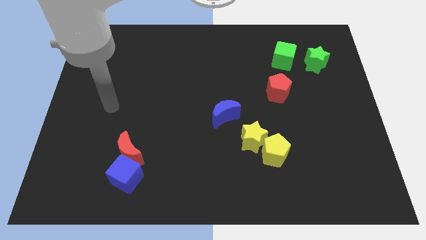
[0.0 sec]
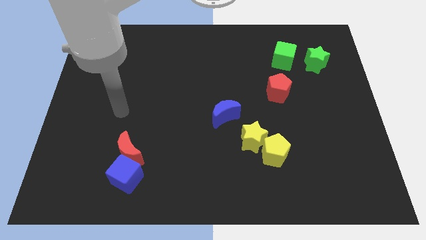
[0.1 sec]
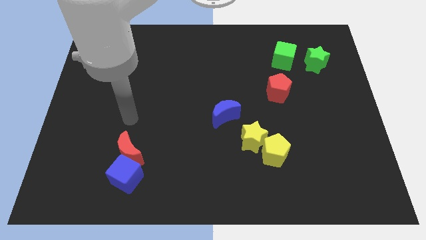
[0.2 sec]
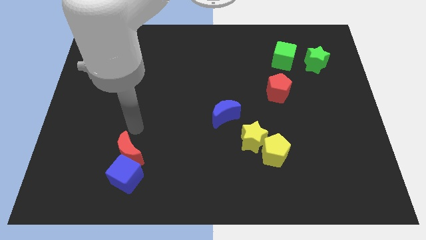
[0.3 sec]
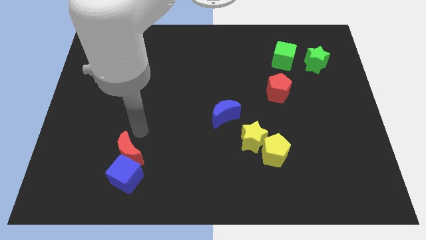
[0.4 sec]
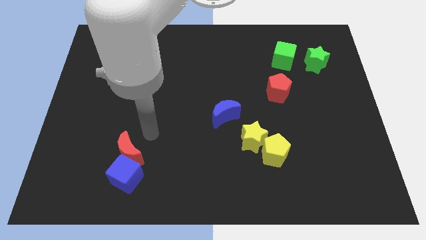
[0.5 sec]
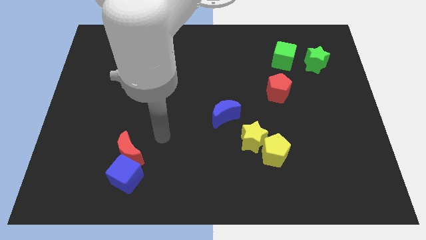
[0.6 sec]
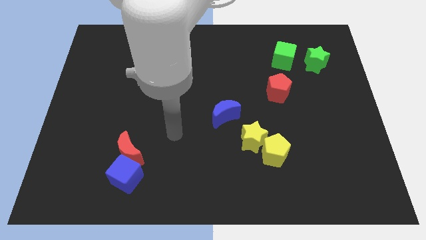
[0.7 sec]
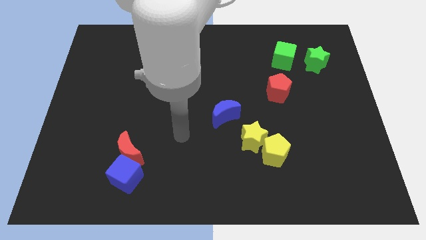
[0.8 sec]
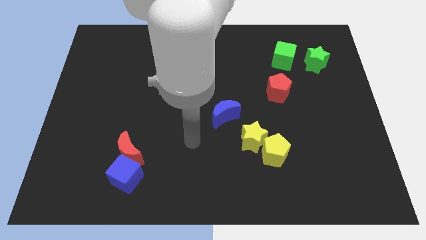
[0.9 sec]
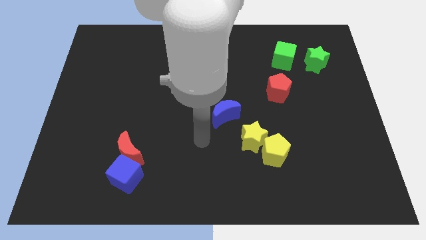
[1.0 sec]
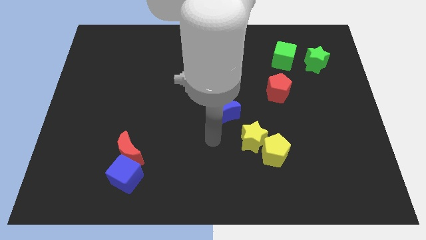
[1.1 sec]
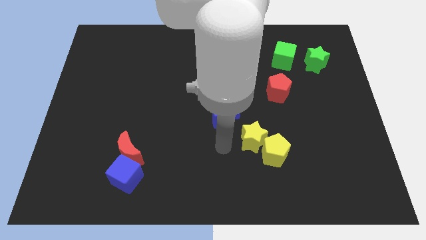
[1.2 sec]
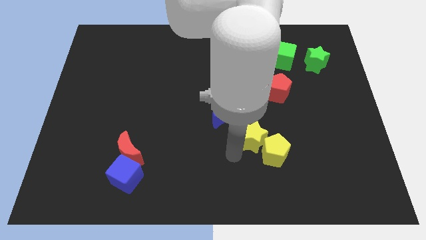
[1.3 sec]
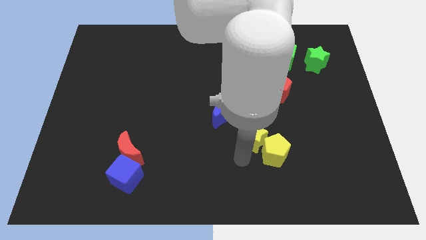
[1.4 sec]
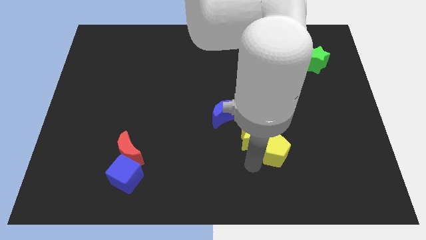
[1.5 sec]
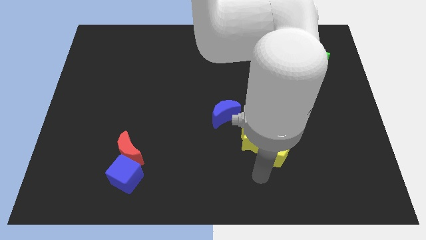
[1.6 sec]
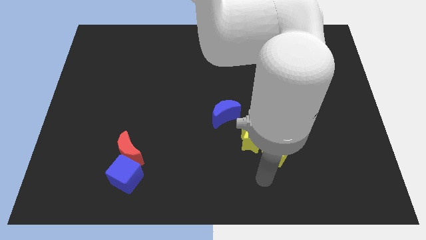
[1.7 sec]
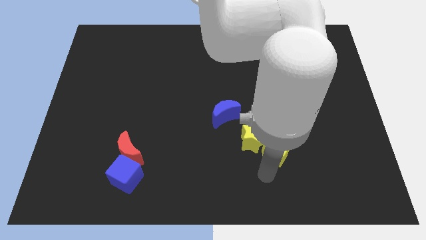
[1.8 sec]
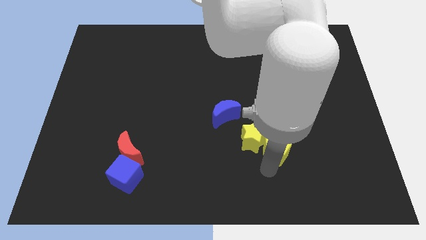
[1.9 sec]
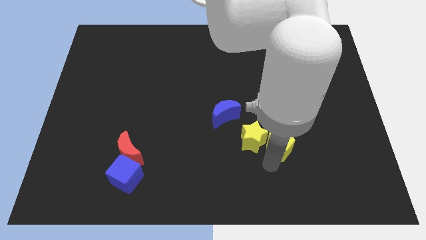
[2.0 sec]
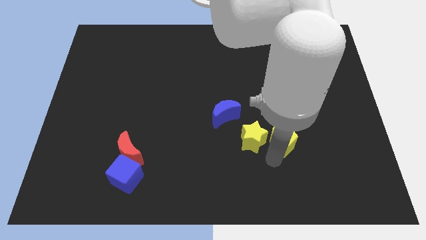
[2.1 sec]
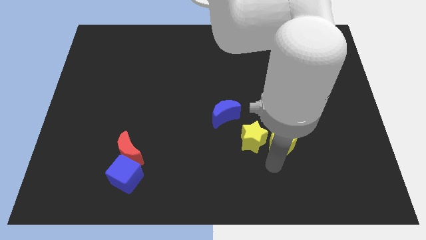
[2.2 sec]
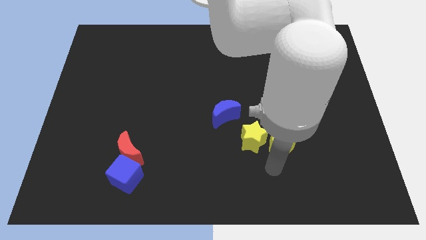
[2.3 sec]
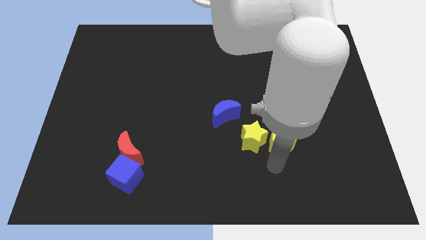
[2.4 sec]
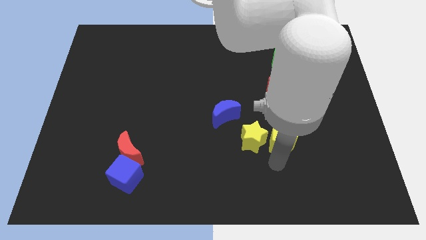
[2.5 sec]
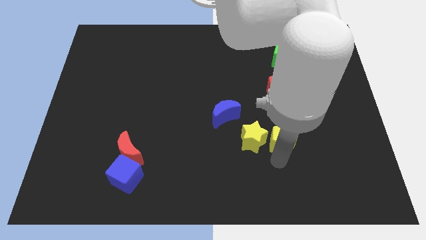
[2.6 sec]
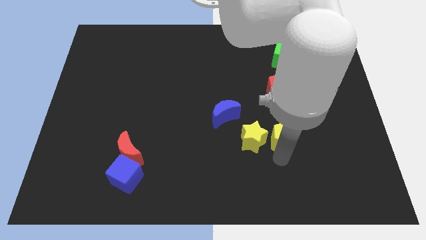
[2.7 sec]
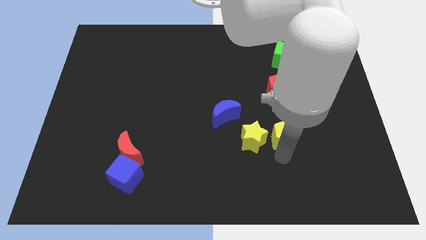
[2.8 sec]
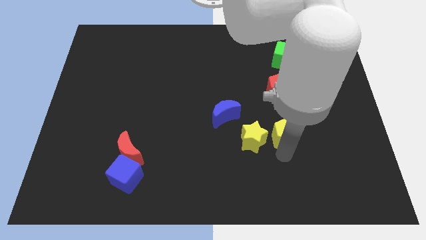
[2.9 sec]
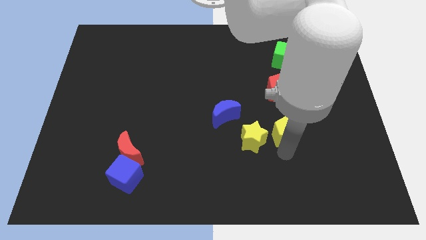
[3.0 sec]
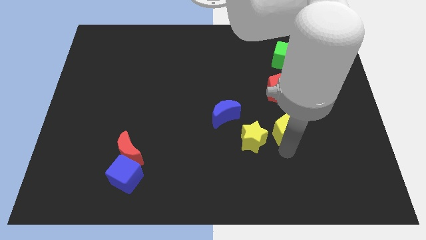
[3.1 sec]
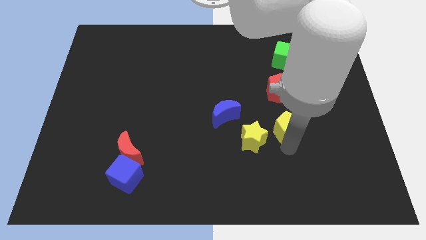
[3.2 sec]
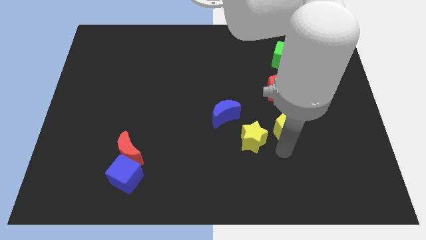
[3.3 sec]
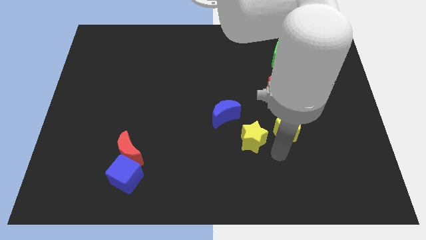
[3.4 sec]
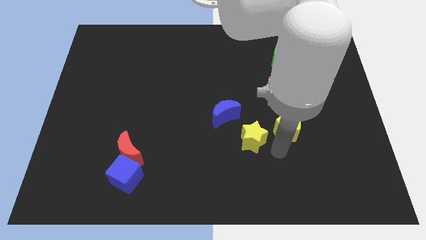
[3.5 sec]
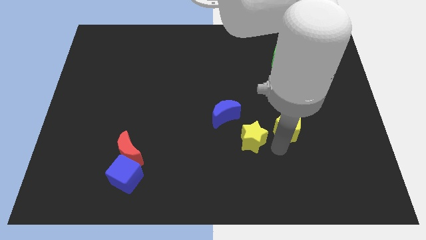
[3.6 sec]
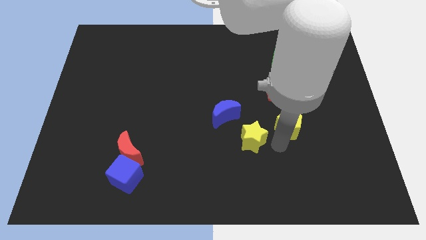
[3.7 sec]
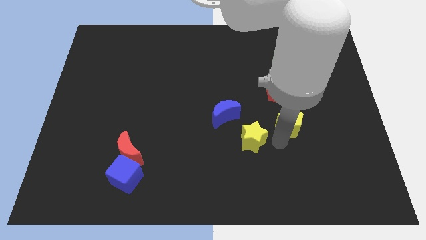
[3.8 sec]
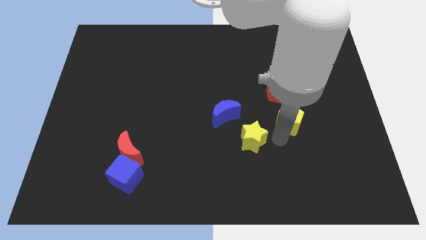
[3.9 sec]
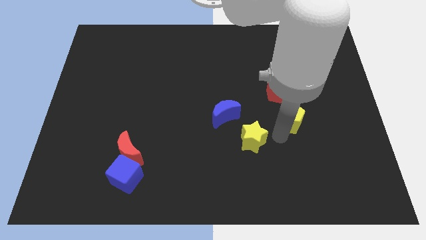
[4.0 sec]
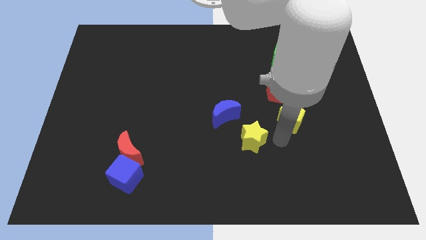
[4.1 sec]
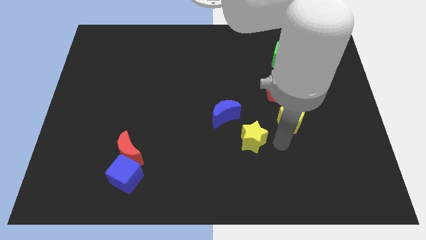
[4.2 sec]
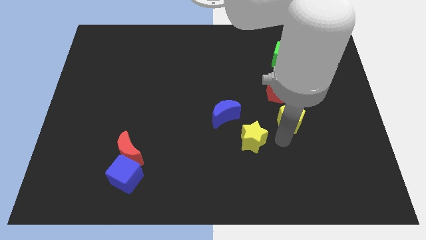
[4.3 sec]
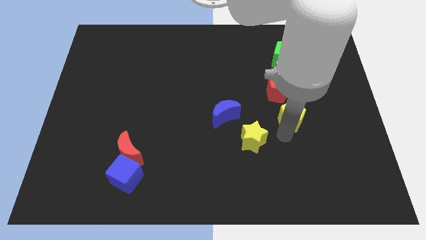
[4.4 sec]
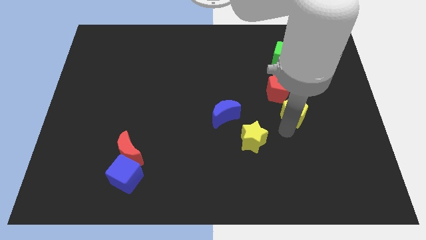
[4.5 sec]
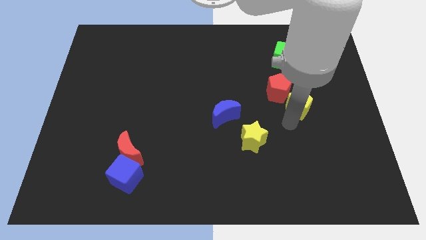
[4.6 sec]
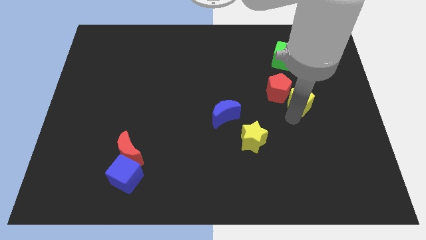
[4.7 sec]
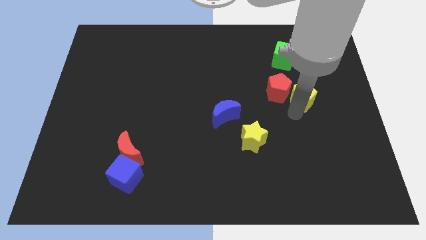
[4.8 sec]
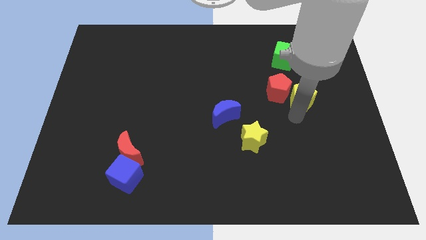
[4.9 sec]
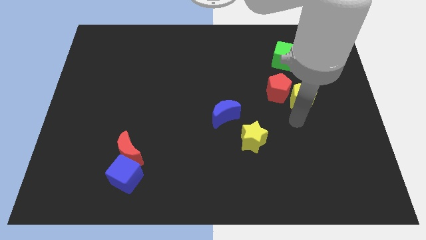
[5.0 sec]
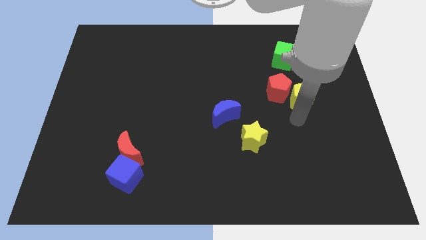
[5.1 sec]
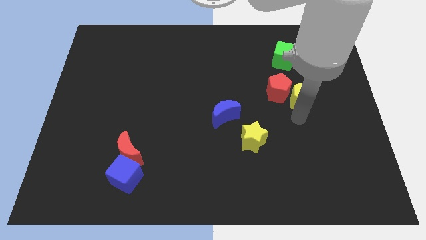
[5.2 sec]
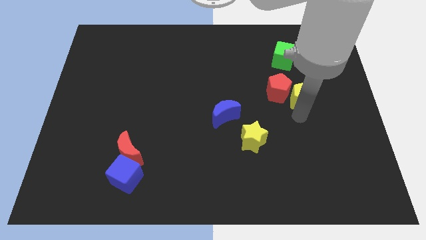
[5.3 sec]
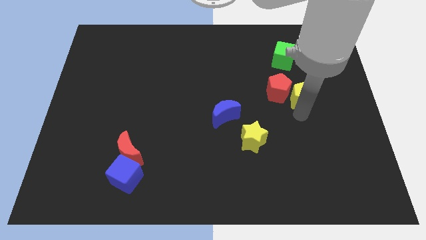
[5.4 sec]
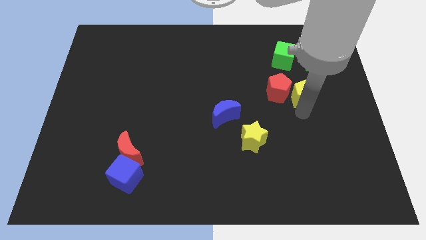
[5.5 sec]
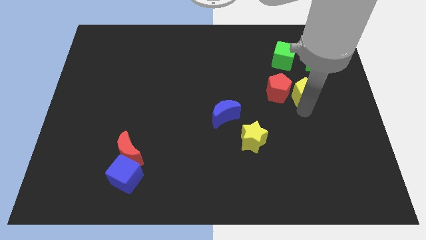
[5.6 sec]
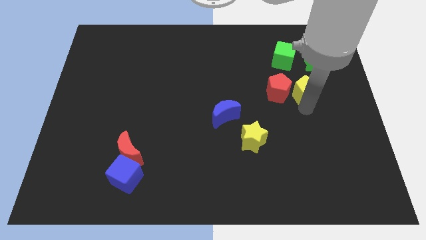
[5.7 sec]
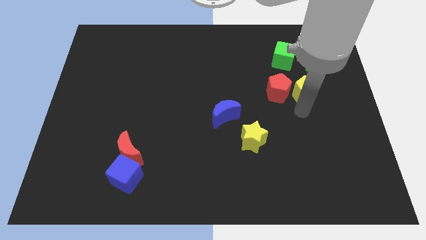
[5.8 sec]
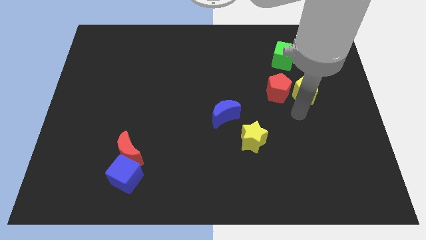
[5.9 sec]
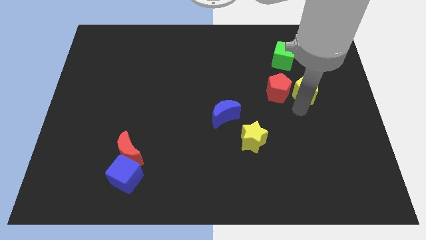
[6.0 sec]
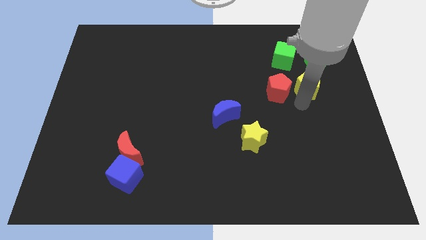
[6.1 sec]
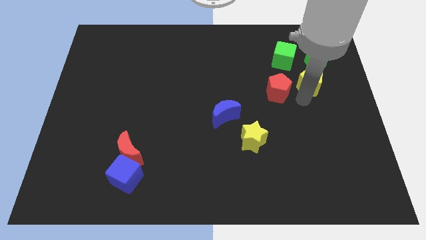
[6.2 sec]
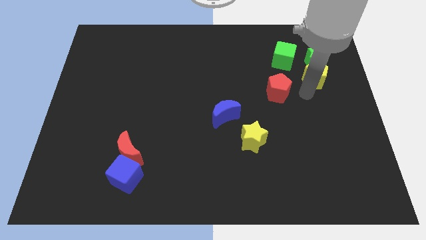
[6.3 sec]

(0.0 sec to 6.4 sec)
slide the yellow pentagon to the green star

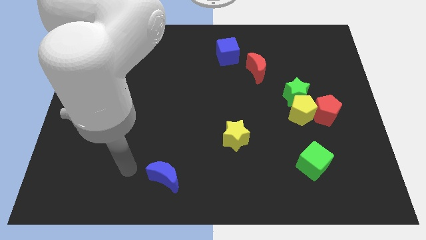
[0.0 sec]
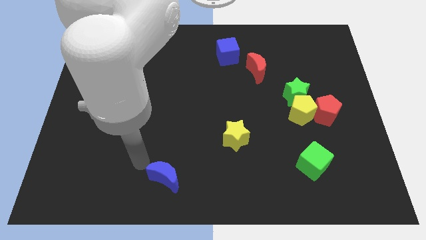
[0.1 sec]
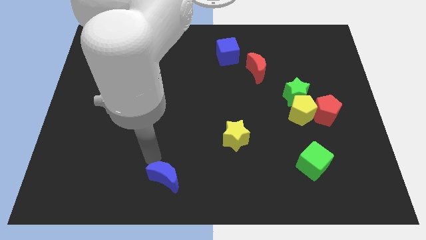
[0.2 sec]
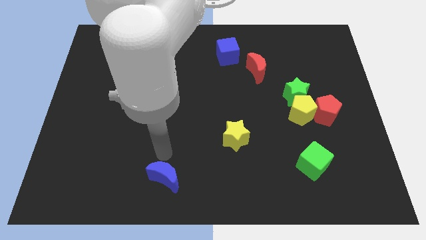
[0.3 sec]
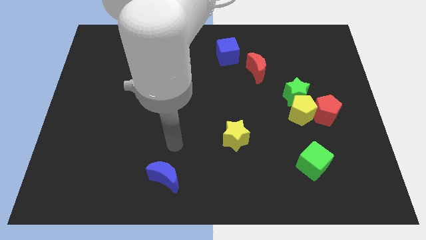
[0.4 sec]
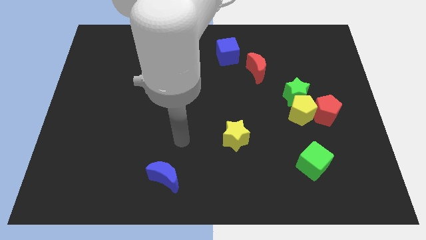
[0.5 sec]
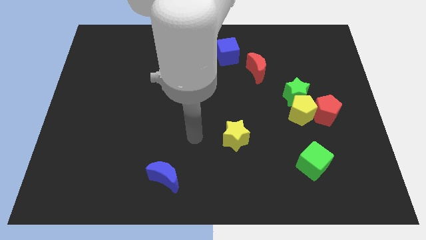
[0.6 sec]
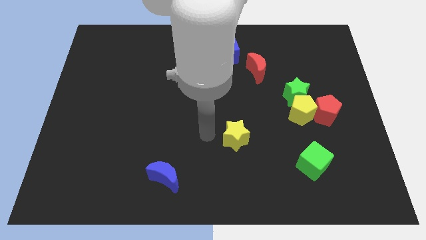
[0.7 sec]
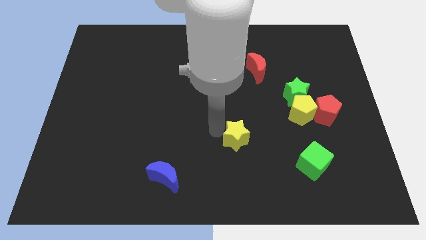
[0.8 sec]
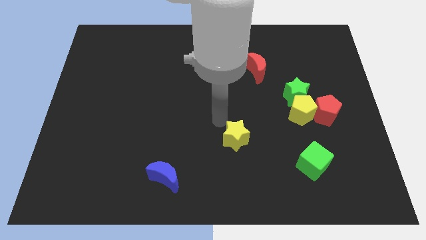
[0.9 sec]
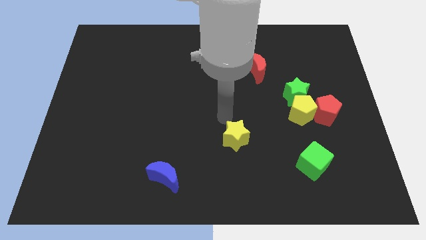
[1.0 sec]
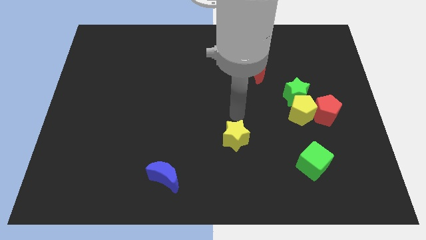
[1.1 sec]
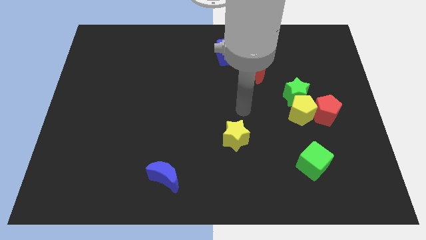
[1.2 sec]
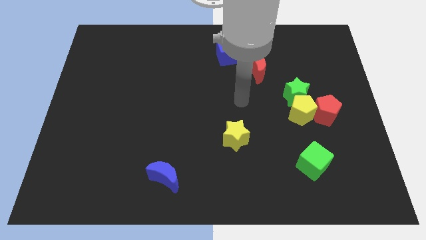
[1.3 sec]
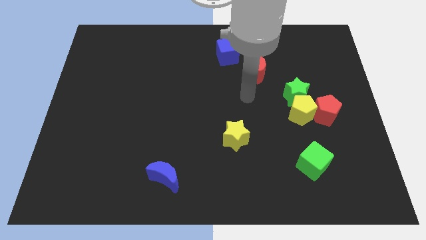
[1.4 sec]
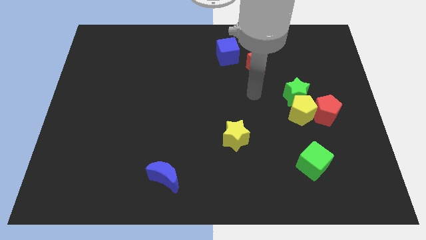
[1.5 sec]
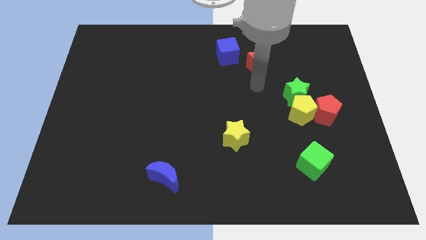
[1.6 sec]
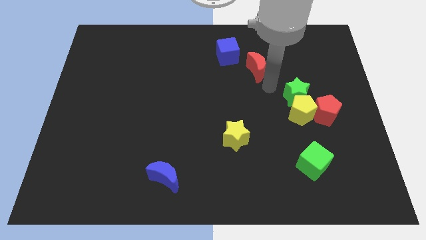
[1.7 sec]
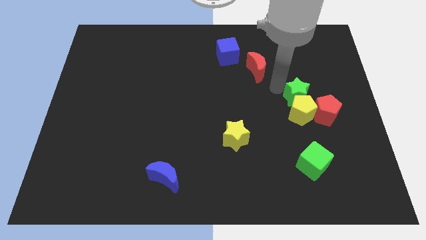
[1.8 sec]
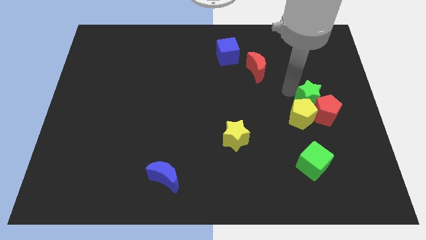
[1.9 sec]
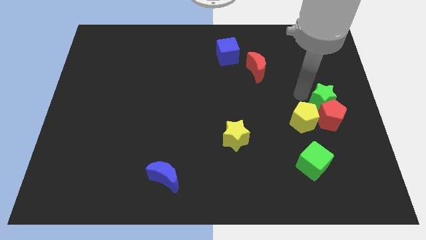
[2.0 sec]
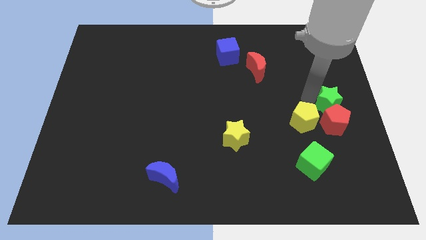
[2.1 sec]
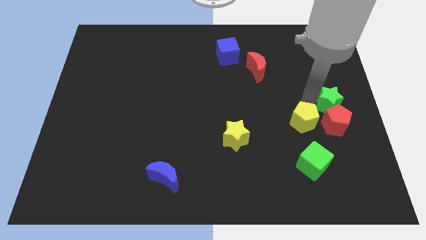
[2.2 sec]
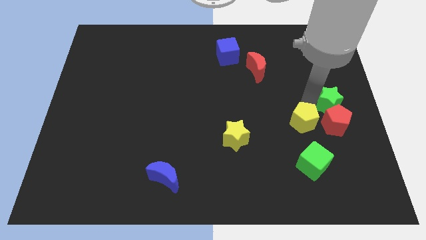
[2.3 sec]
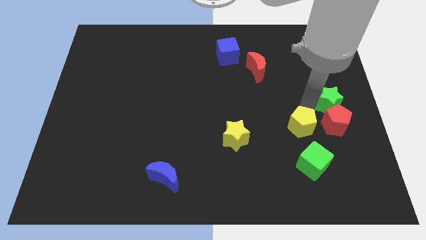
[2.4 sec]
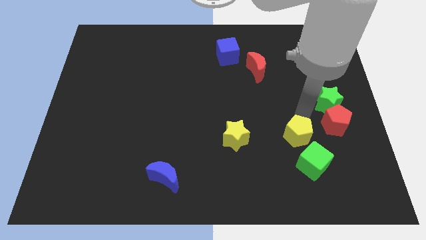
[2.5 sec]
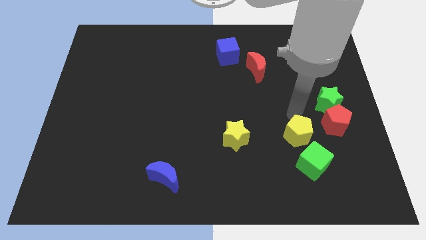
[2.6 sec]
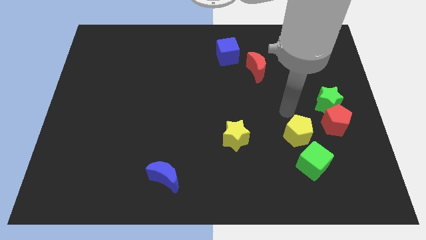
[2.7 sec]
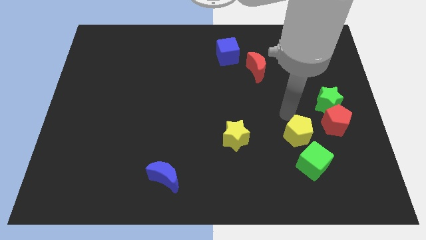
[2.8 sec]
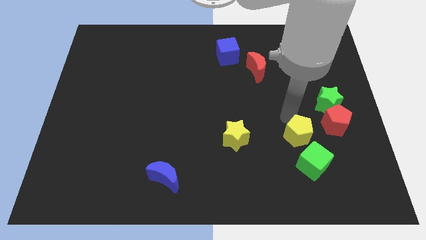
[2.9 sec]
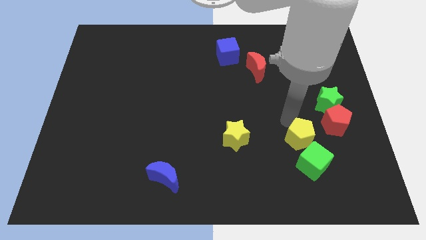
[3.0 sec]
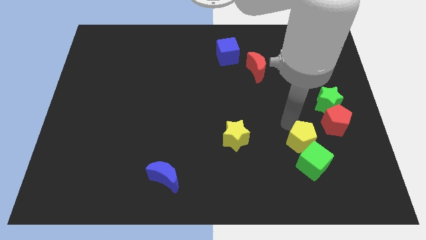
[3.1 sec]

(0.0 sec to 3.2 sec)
push the yellow pentagon towards the green cube
